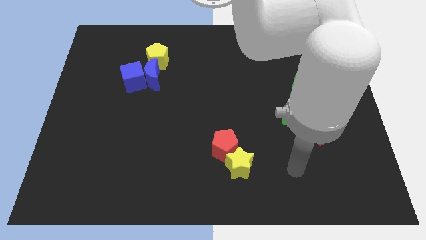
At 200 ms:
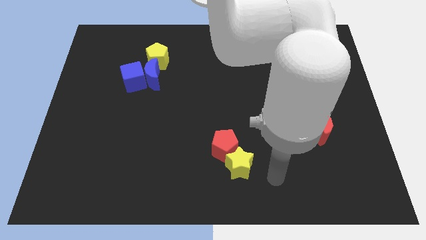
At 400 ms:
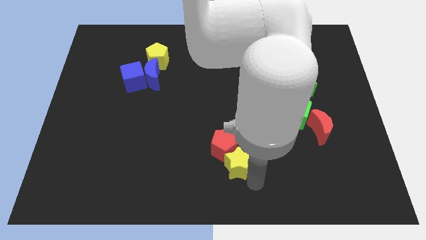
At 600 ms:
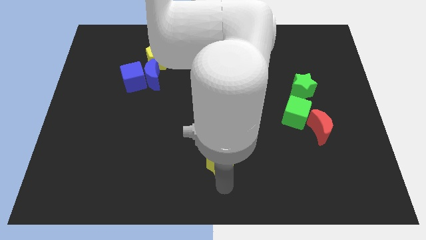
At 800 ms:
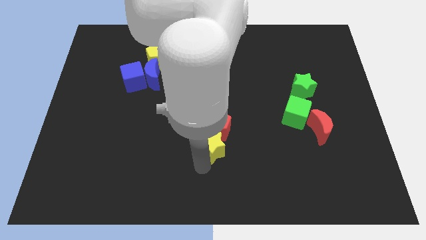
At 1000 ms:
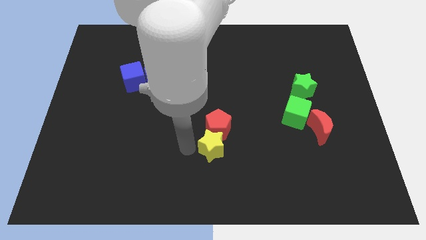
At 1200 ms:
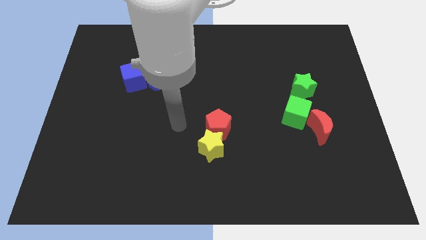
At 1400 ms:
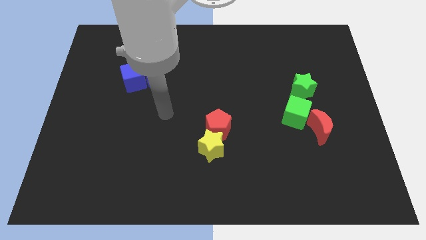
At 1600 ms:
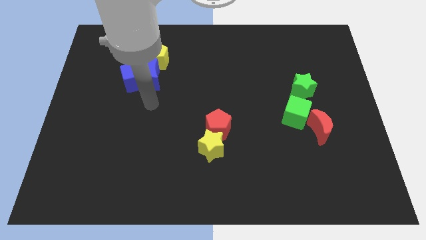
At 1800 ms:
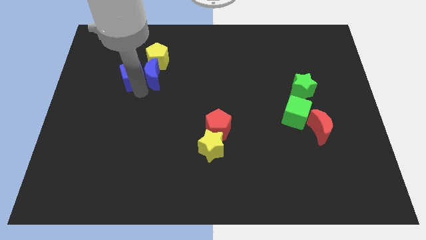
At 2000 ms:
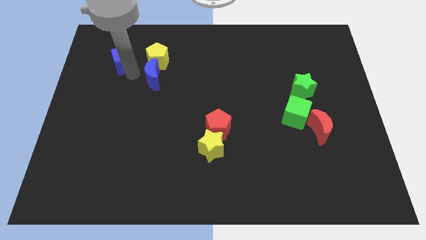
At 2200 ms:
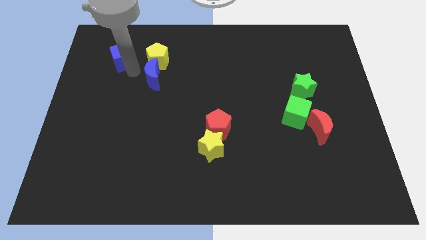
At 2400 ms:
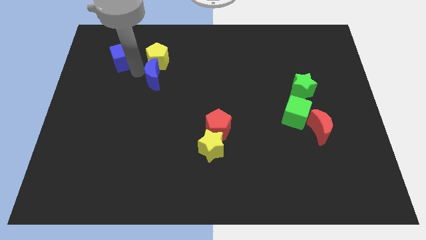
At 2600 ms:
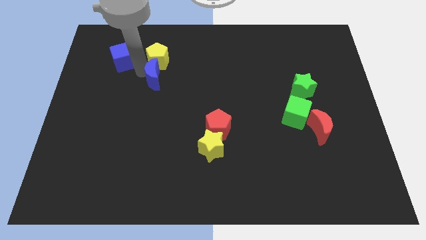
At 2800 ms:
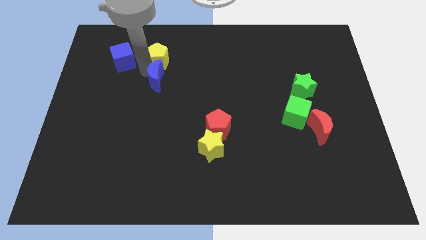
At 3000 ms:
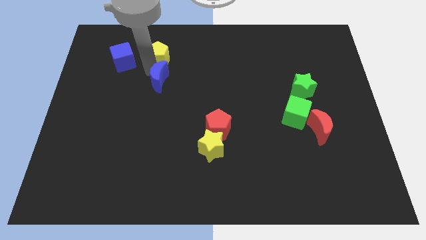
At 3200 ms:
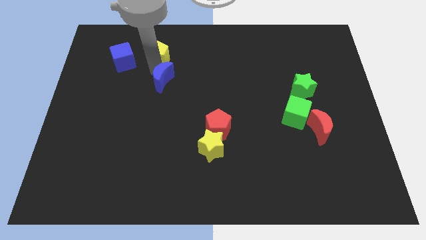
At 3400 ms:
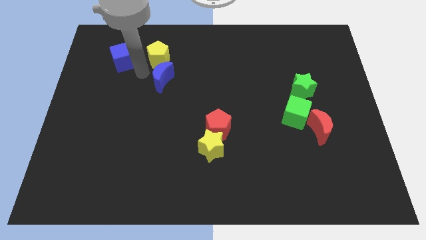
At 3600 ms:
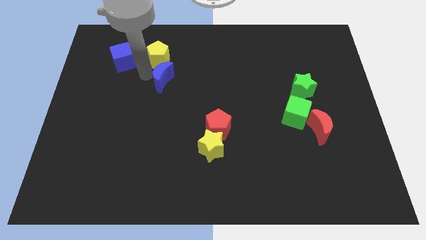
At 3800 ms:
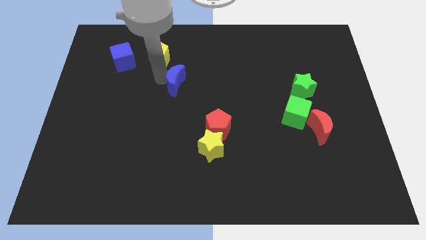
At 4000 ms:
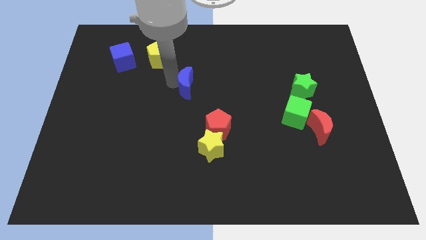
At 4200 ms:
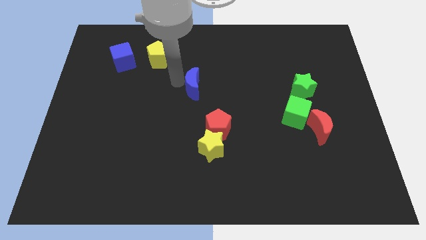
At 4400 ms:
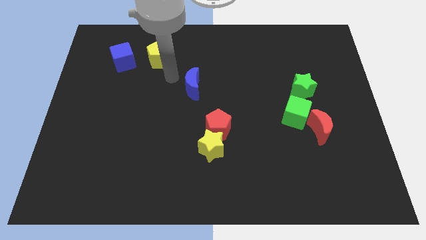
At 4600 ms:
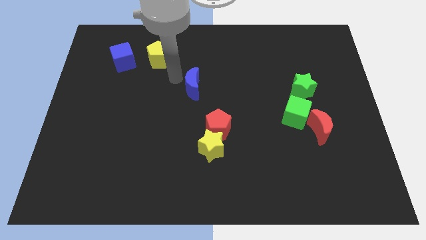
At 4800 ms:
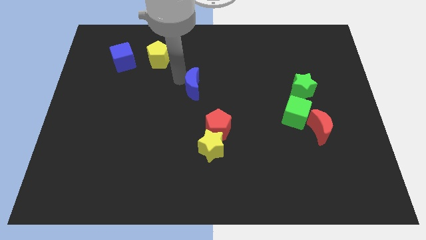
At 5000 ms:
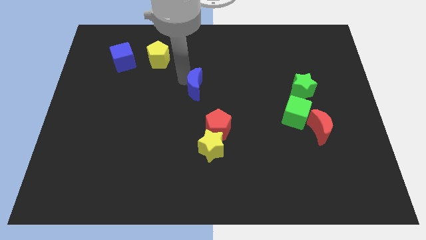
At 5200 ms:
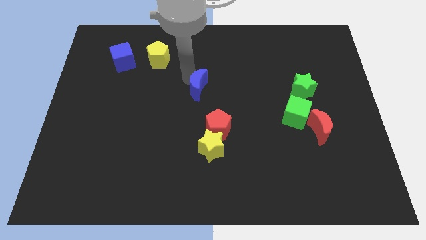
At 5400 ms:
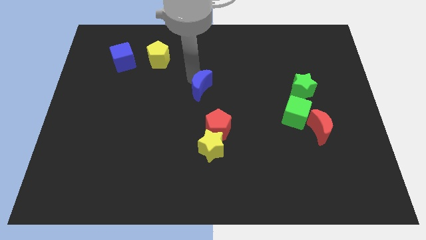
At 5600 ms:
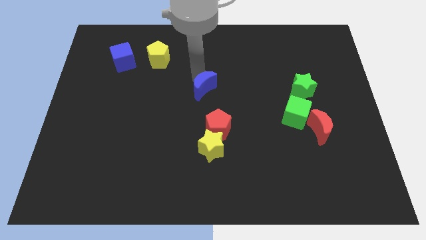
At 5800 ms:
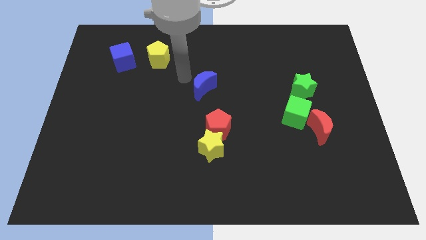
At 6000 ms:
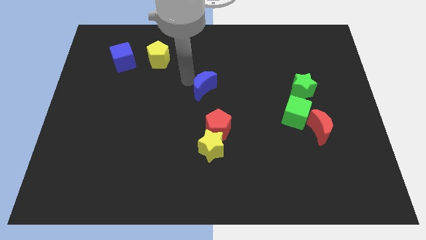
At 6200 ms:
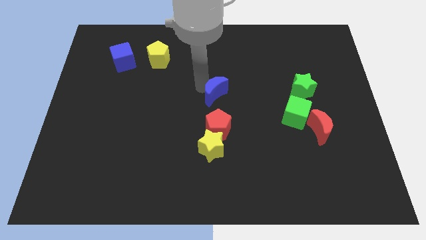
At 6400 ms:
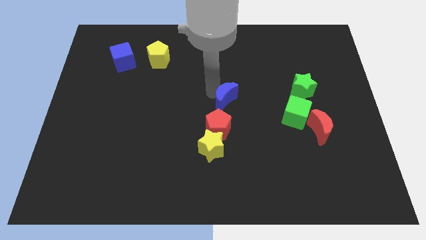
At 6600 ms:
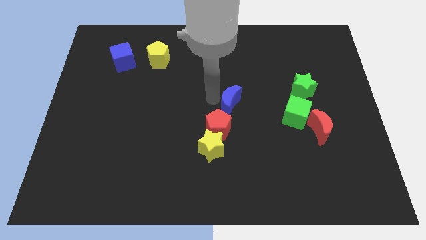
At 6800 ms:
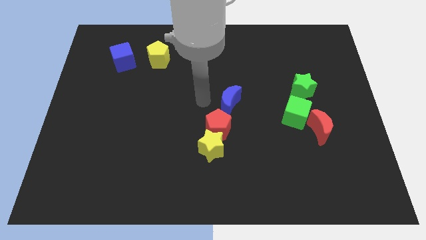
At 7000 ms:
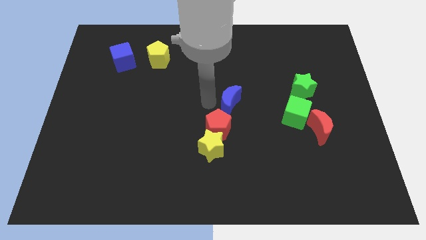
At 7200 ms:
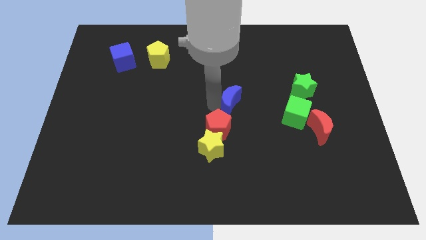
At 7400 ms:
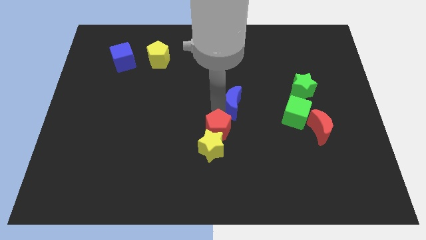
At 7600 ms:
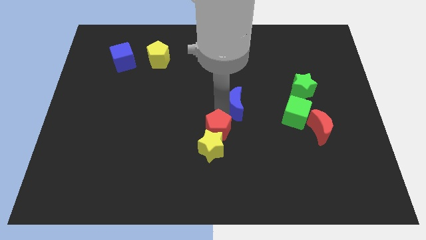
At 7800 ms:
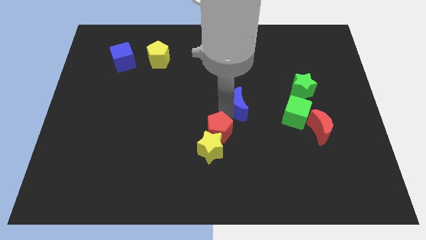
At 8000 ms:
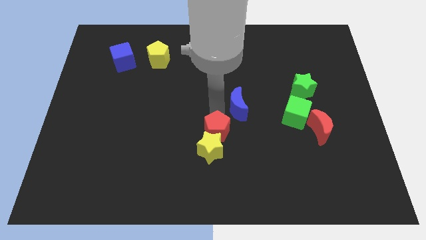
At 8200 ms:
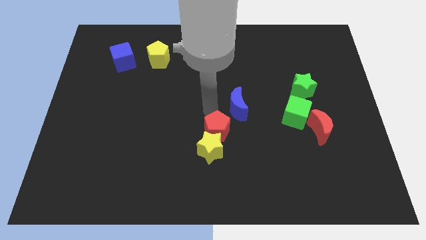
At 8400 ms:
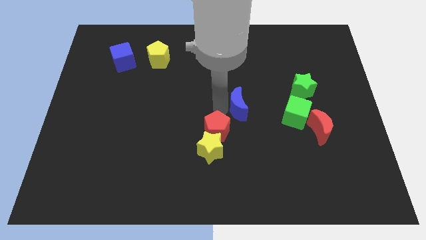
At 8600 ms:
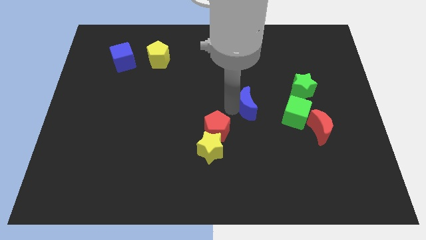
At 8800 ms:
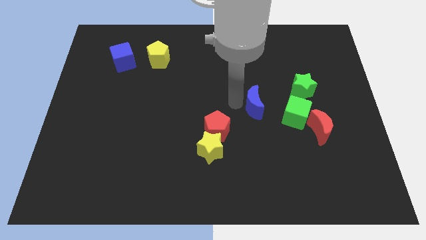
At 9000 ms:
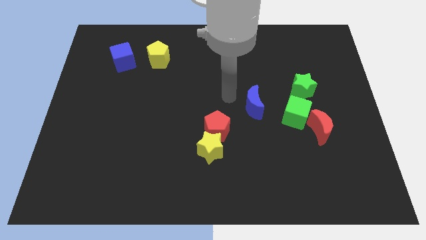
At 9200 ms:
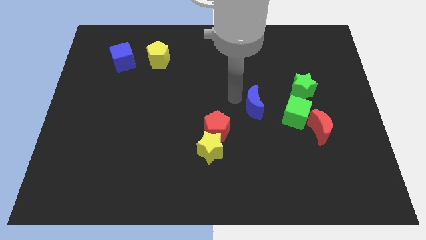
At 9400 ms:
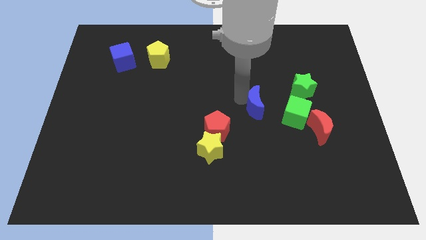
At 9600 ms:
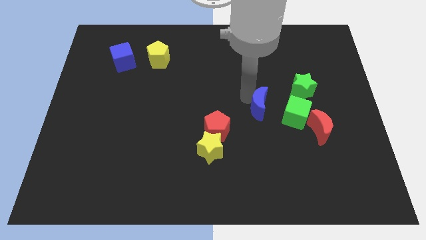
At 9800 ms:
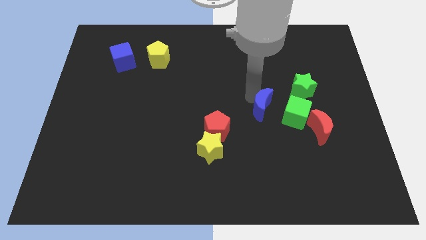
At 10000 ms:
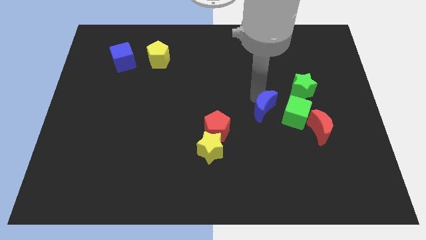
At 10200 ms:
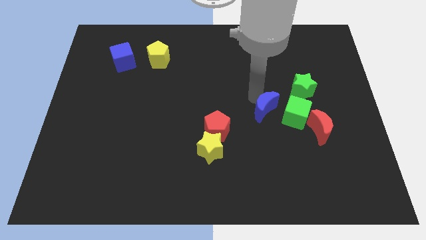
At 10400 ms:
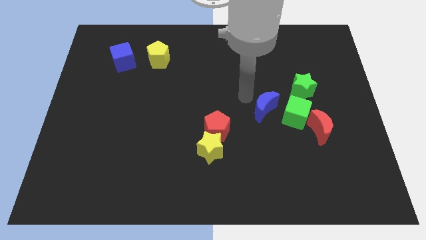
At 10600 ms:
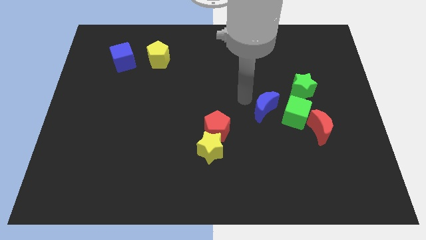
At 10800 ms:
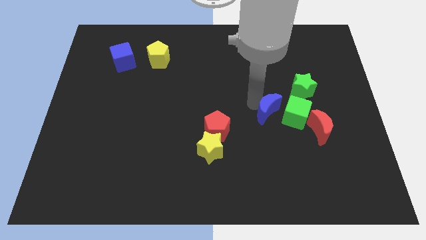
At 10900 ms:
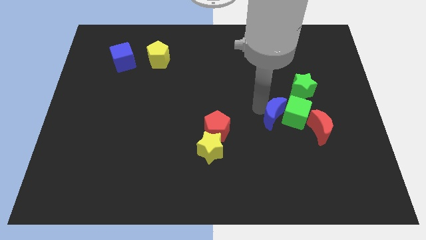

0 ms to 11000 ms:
move the blue moon close to the green cube

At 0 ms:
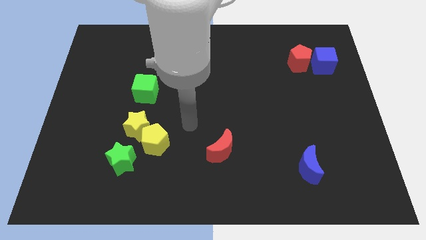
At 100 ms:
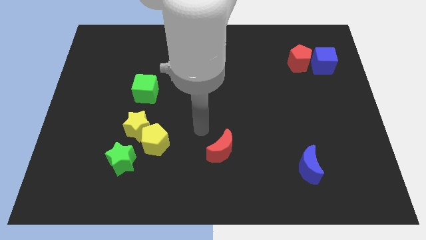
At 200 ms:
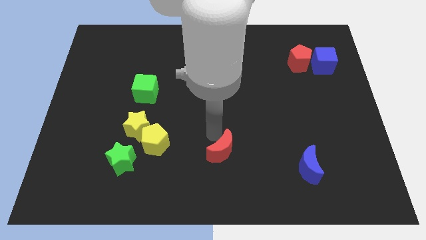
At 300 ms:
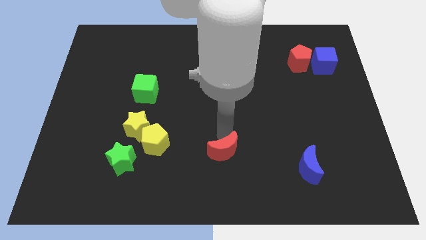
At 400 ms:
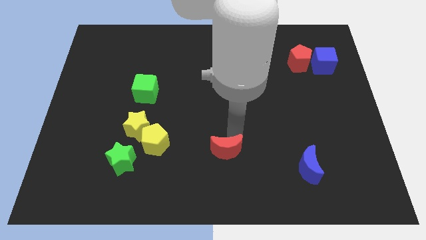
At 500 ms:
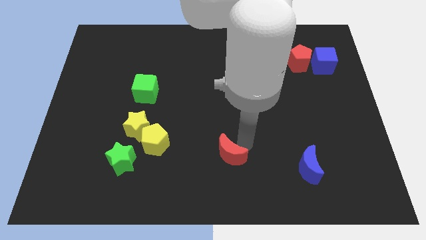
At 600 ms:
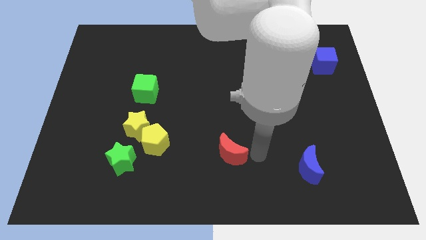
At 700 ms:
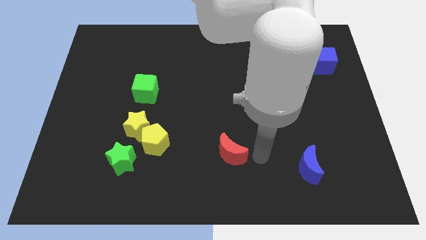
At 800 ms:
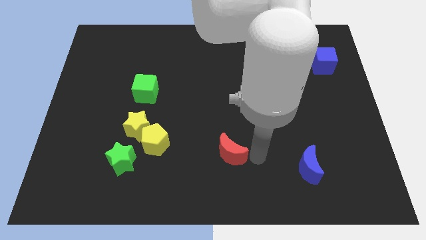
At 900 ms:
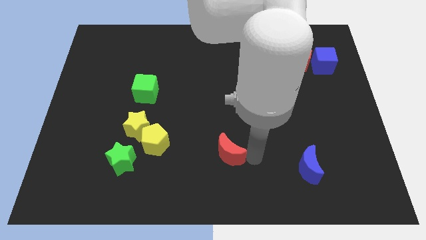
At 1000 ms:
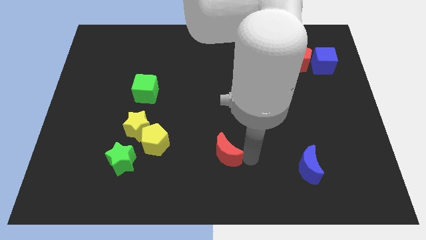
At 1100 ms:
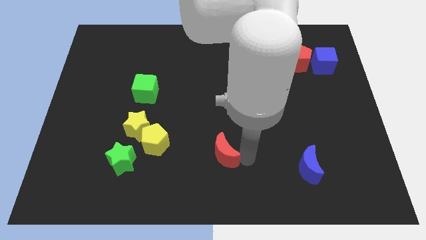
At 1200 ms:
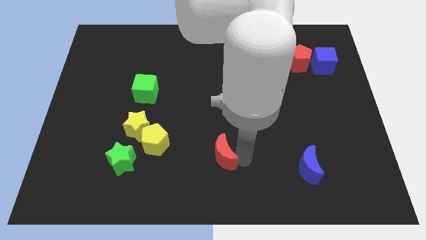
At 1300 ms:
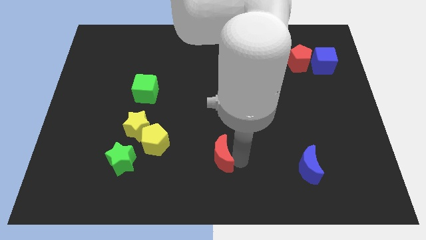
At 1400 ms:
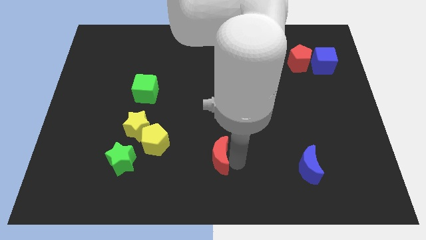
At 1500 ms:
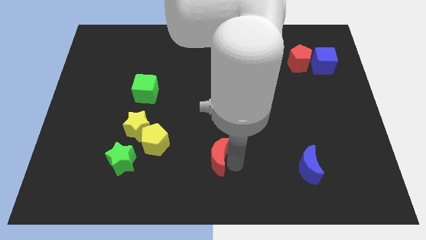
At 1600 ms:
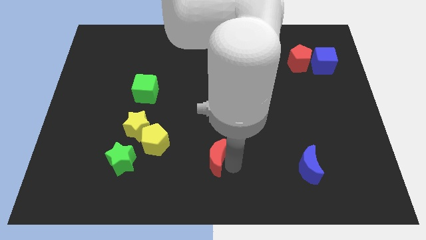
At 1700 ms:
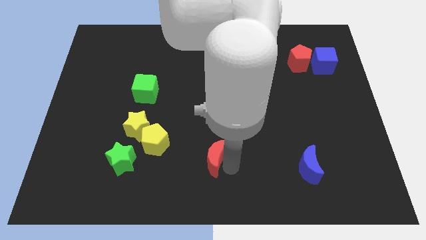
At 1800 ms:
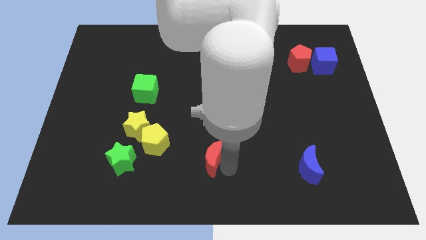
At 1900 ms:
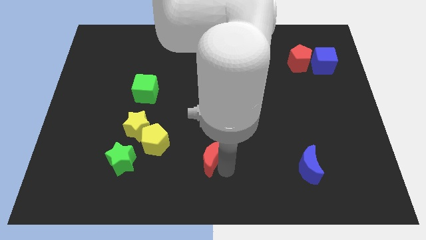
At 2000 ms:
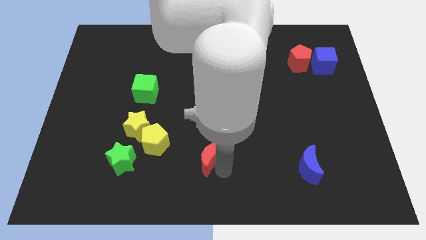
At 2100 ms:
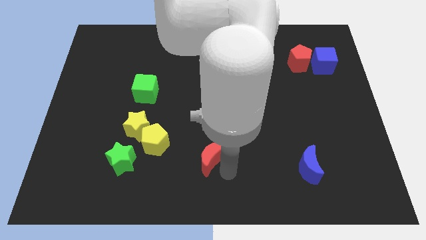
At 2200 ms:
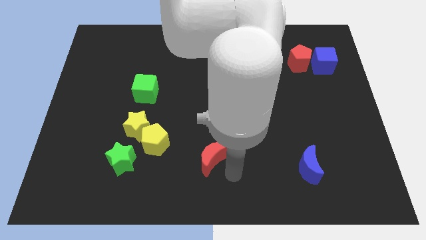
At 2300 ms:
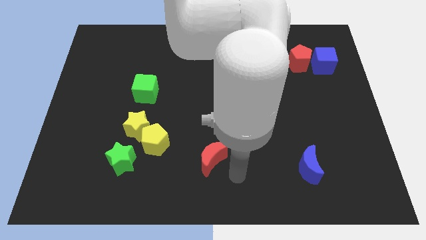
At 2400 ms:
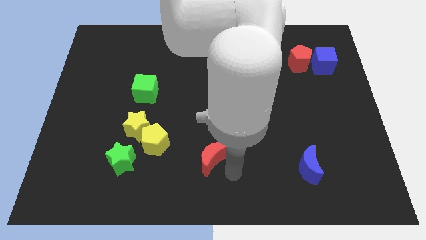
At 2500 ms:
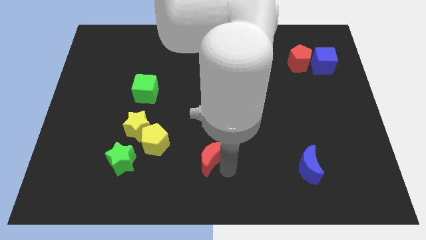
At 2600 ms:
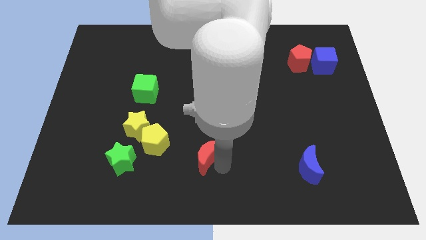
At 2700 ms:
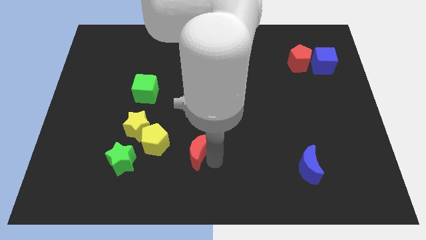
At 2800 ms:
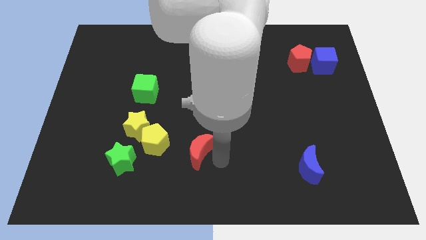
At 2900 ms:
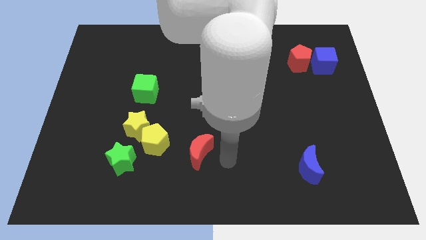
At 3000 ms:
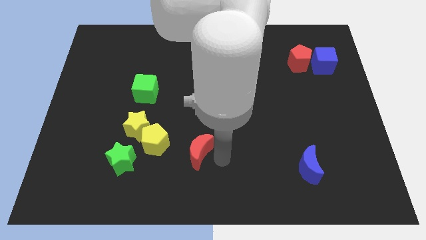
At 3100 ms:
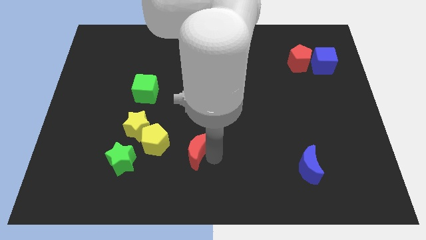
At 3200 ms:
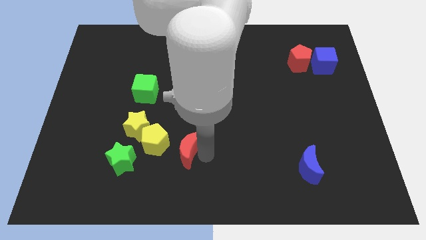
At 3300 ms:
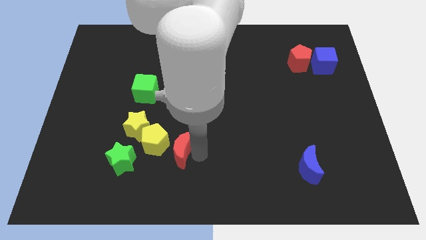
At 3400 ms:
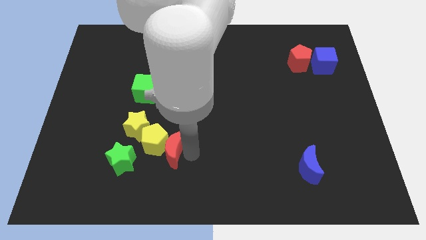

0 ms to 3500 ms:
move the red moon next to the yellow pentagon
